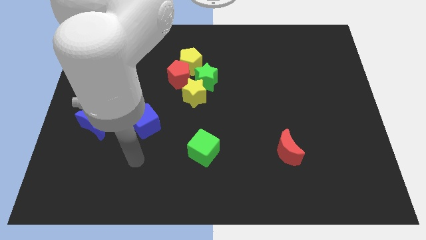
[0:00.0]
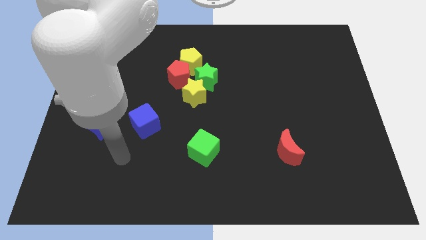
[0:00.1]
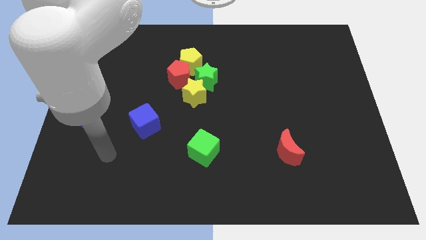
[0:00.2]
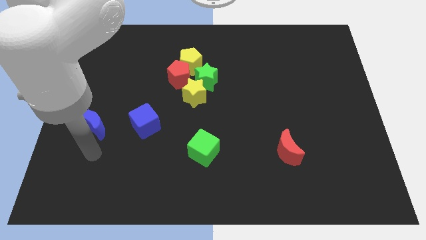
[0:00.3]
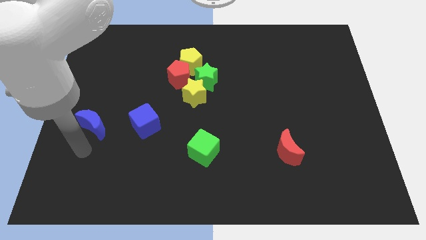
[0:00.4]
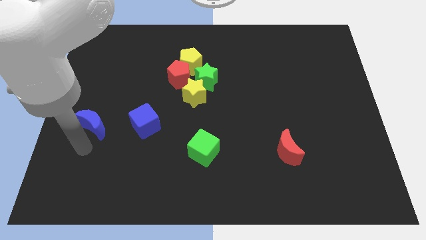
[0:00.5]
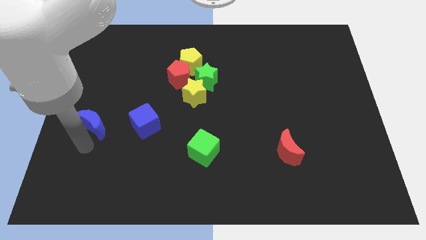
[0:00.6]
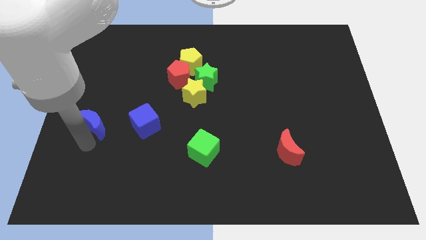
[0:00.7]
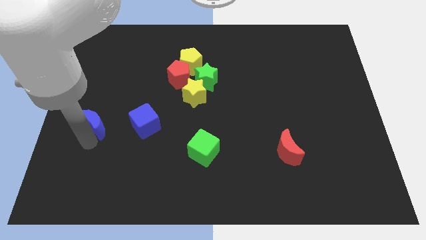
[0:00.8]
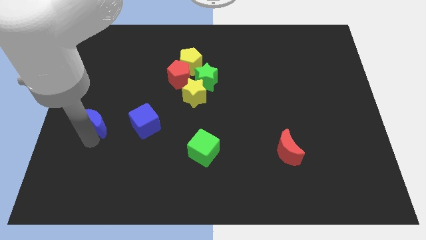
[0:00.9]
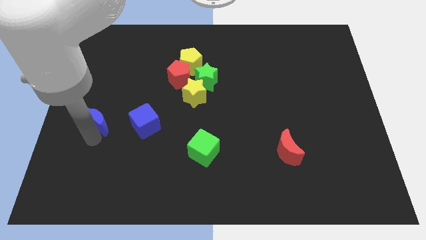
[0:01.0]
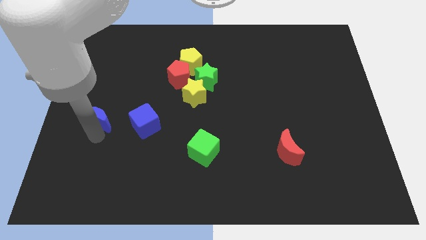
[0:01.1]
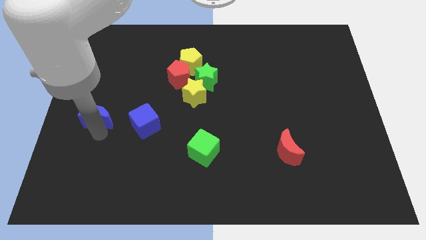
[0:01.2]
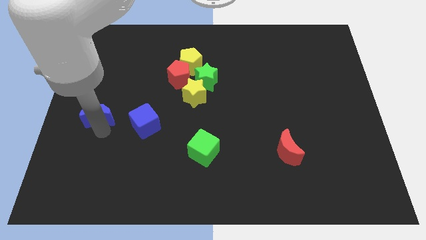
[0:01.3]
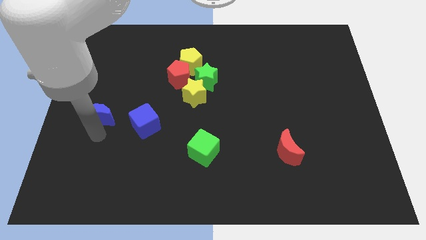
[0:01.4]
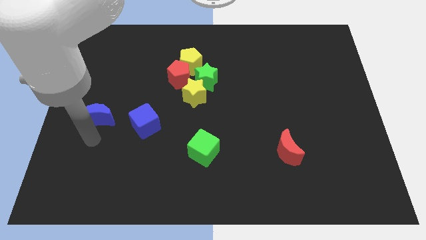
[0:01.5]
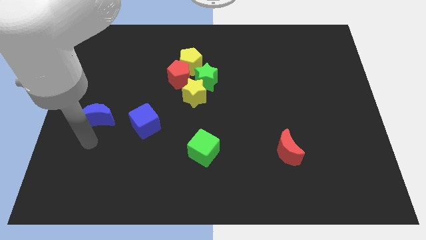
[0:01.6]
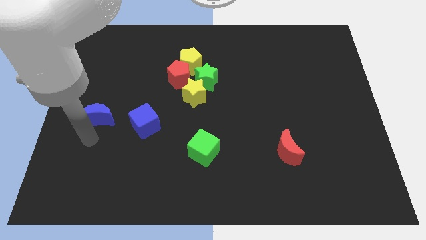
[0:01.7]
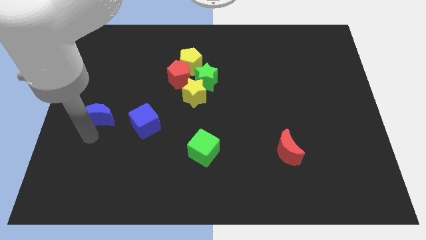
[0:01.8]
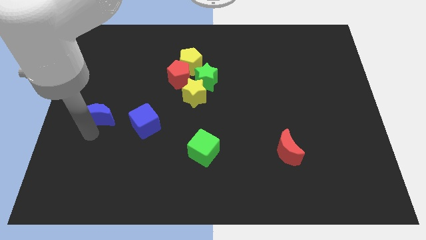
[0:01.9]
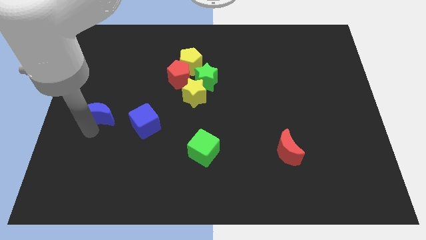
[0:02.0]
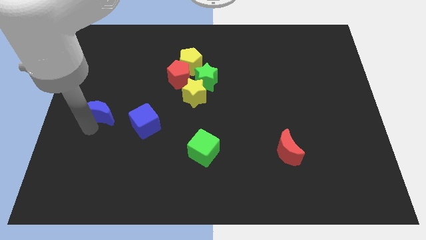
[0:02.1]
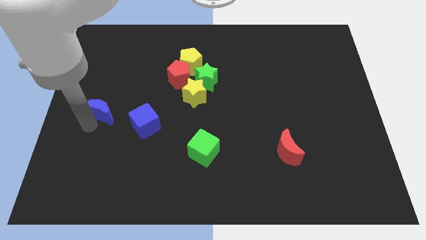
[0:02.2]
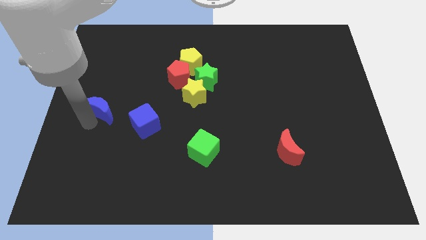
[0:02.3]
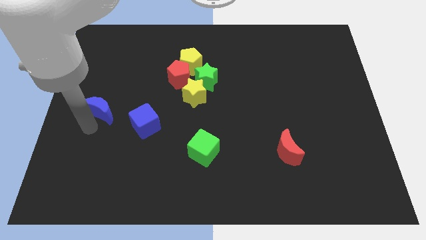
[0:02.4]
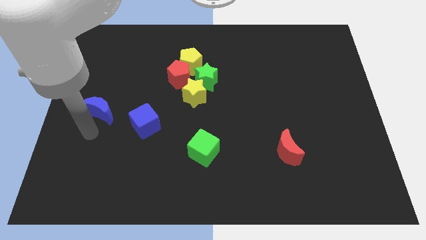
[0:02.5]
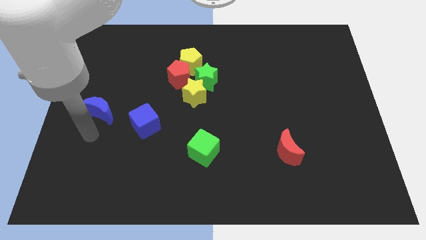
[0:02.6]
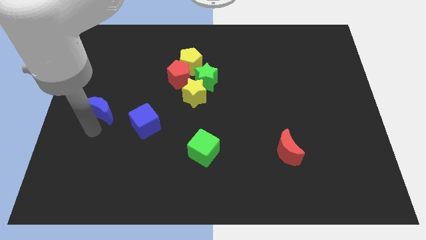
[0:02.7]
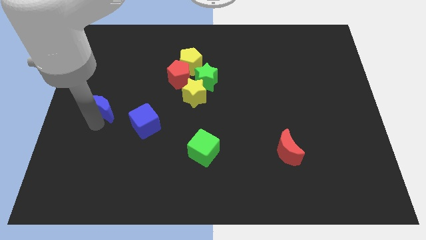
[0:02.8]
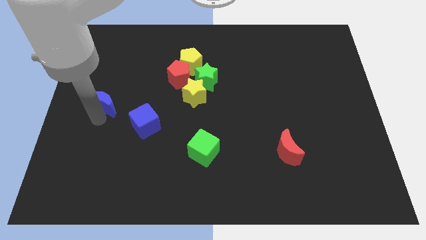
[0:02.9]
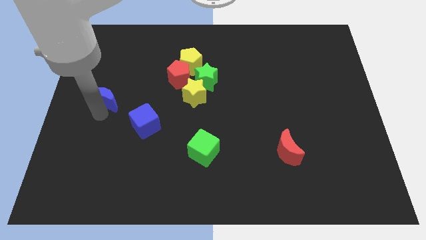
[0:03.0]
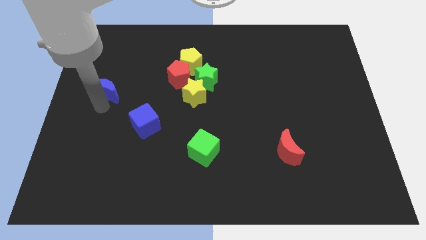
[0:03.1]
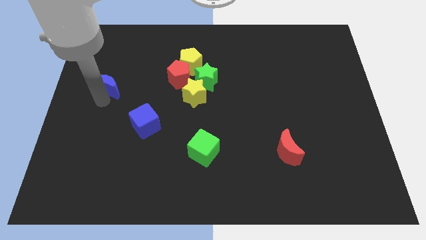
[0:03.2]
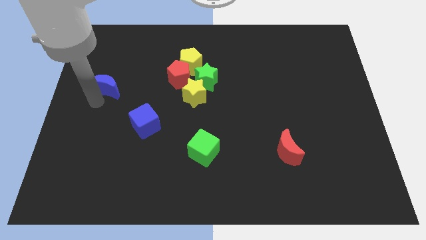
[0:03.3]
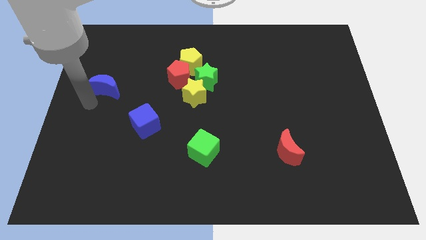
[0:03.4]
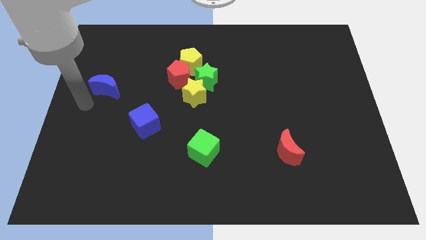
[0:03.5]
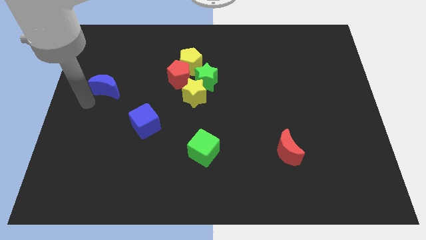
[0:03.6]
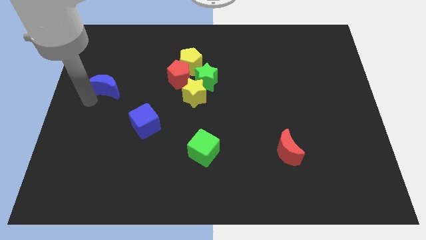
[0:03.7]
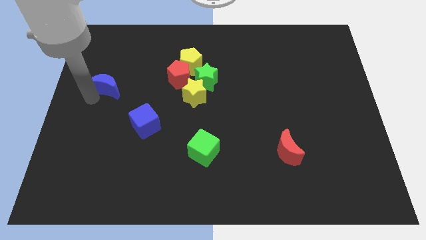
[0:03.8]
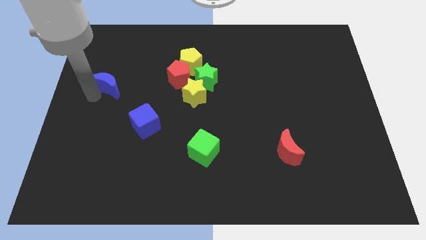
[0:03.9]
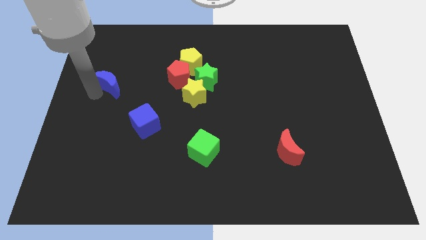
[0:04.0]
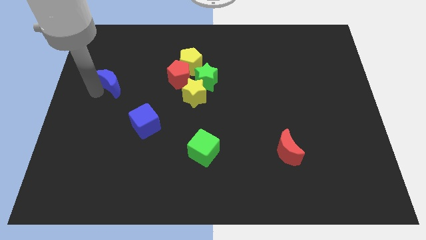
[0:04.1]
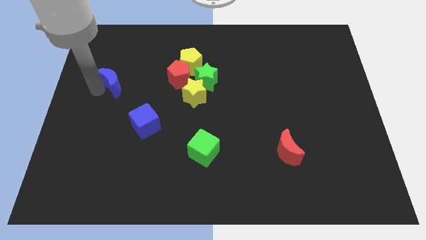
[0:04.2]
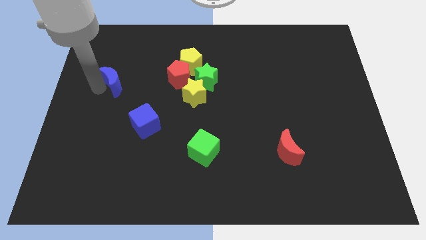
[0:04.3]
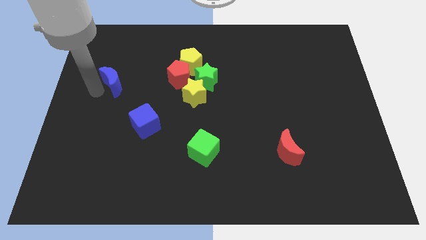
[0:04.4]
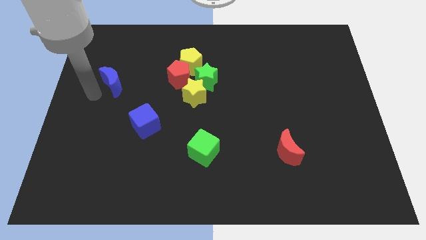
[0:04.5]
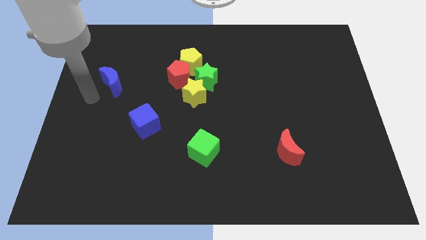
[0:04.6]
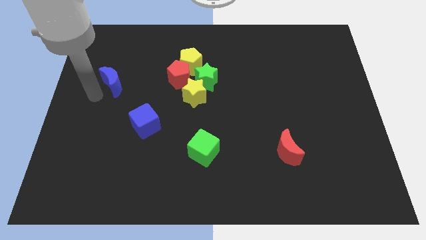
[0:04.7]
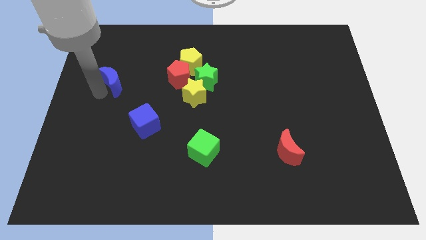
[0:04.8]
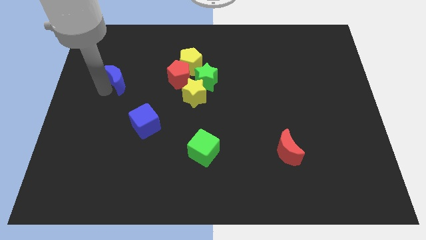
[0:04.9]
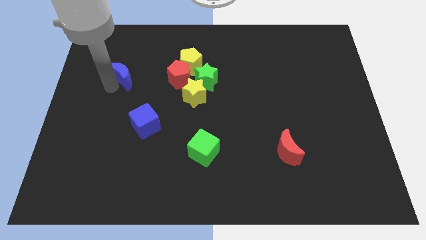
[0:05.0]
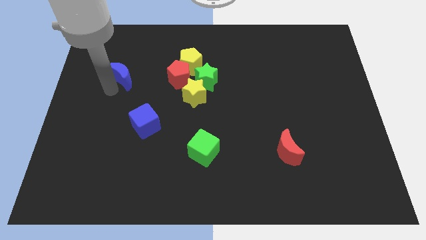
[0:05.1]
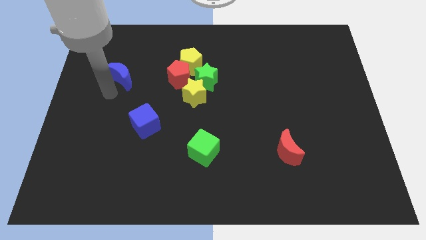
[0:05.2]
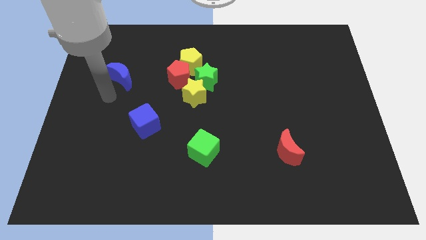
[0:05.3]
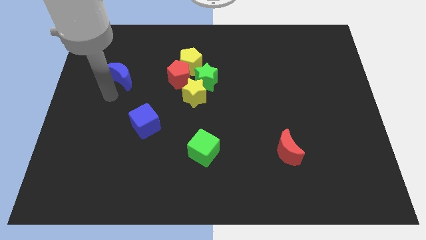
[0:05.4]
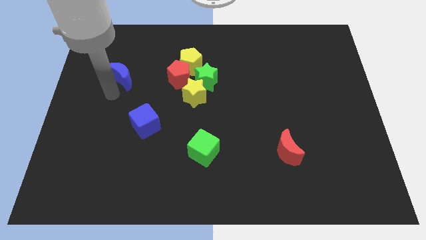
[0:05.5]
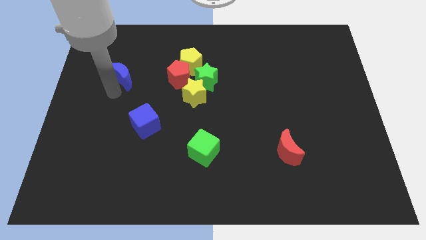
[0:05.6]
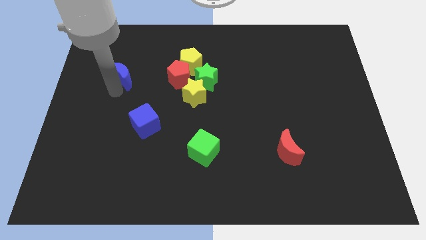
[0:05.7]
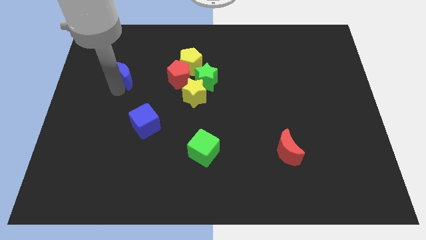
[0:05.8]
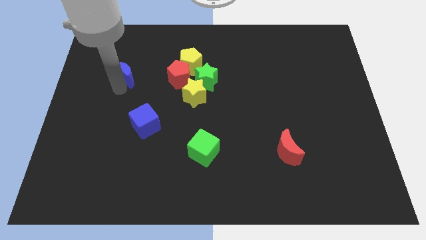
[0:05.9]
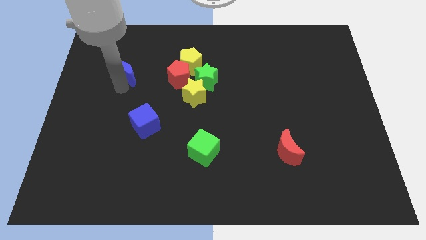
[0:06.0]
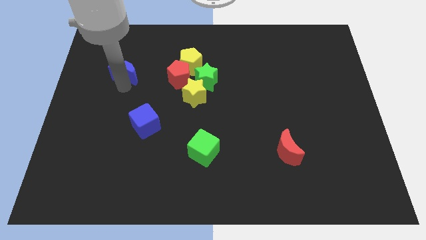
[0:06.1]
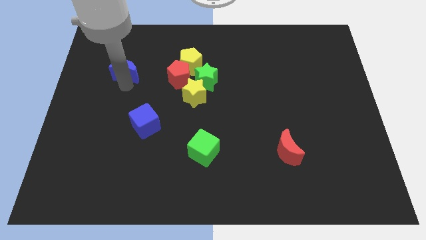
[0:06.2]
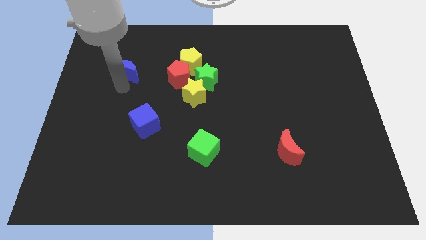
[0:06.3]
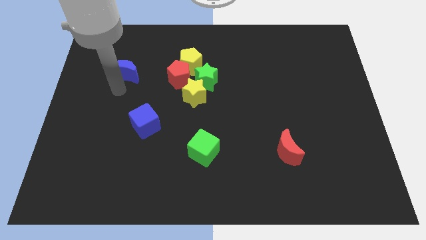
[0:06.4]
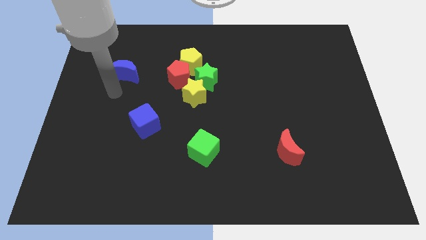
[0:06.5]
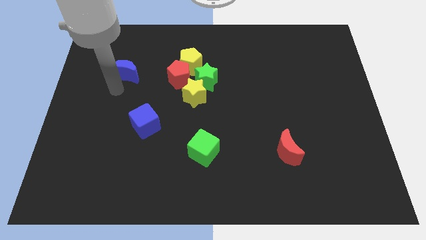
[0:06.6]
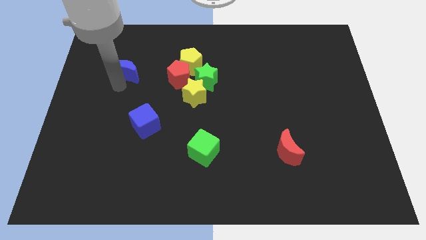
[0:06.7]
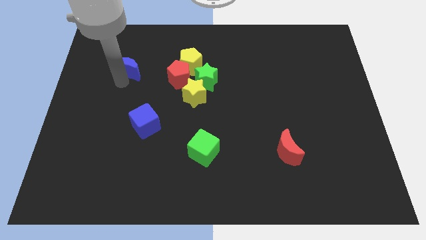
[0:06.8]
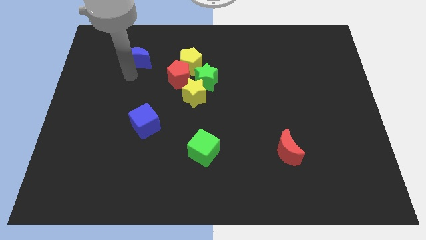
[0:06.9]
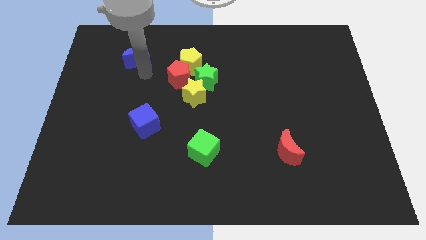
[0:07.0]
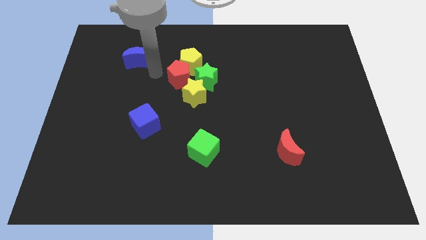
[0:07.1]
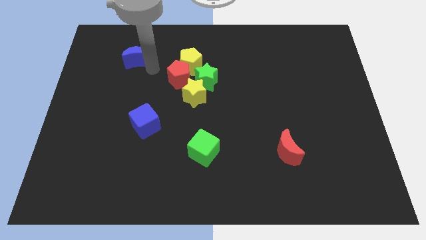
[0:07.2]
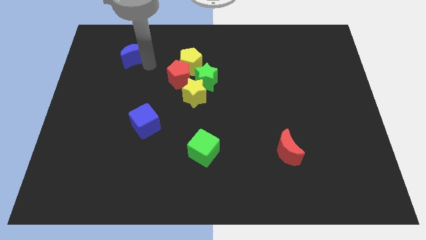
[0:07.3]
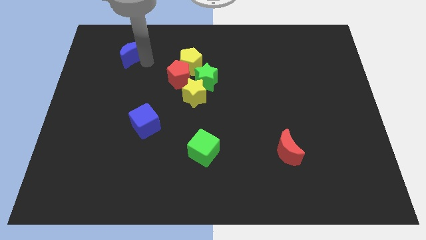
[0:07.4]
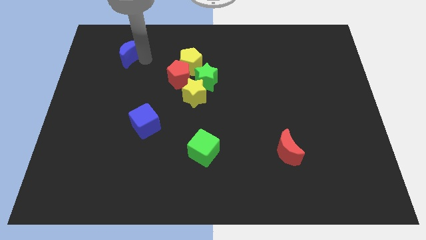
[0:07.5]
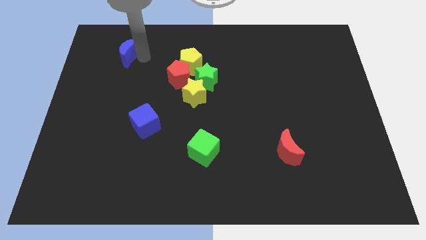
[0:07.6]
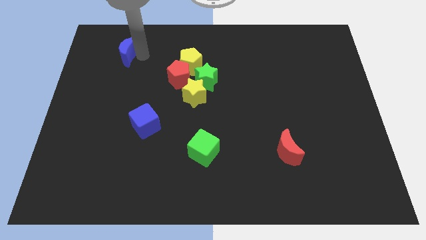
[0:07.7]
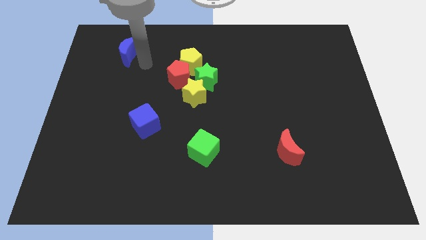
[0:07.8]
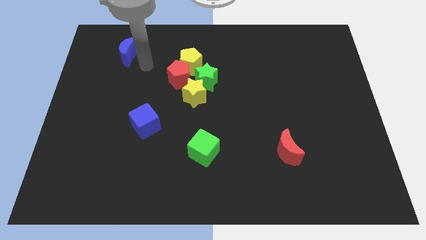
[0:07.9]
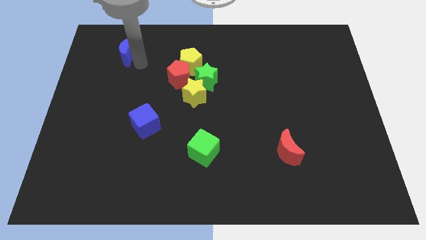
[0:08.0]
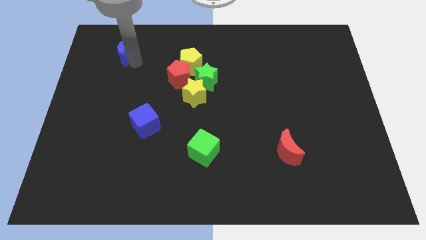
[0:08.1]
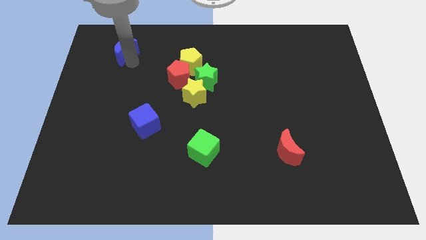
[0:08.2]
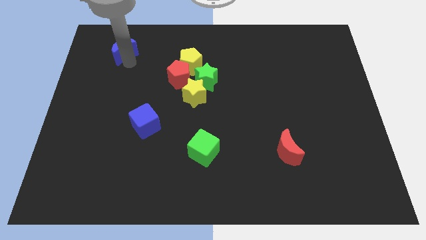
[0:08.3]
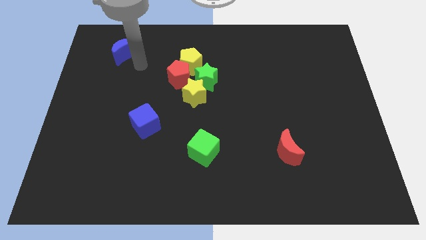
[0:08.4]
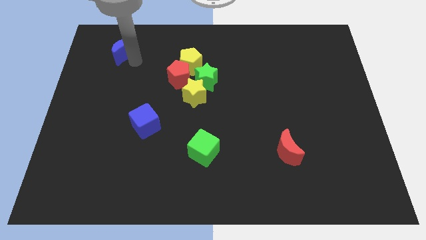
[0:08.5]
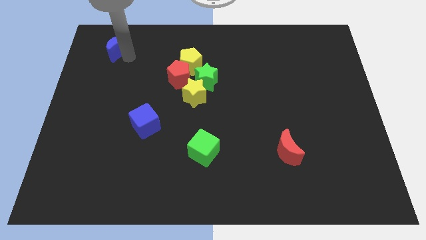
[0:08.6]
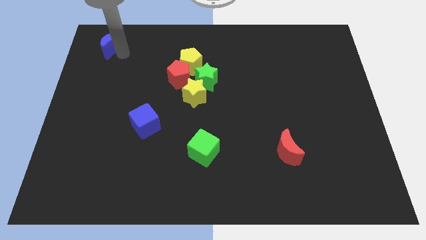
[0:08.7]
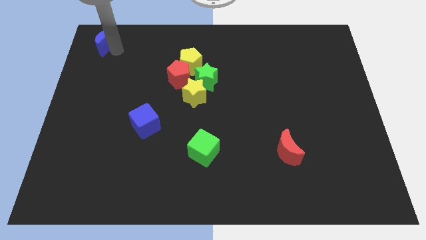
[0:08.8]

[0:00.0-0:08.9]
push the blue moon to the upper left corner
